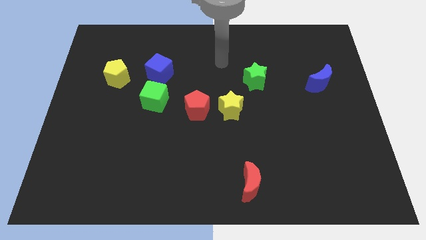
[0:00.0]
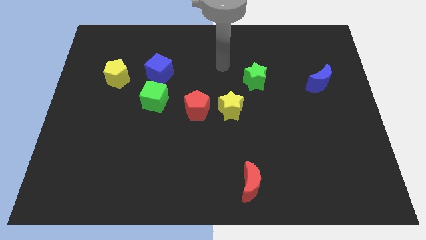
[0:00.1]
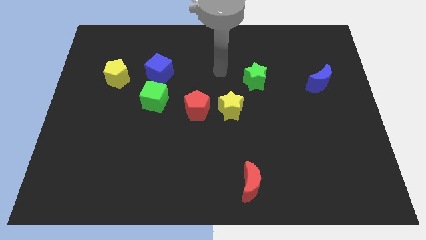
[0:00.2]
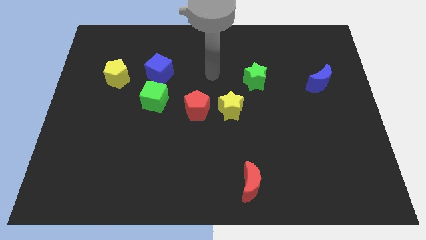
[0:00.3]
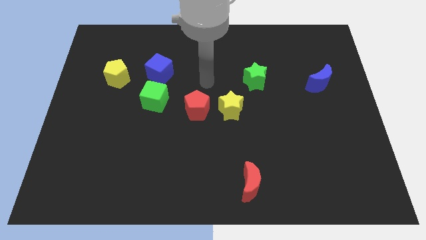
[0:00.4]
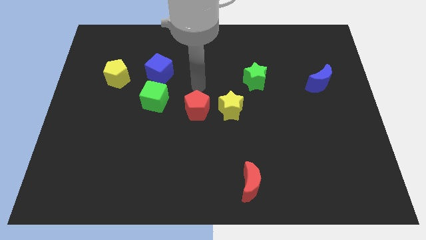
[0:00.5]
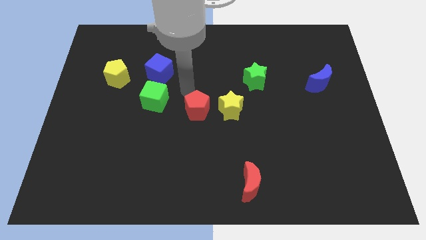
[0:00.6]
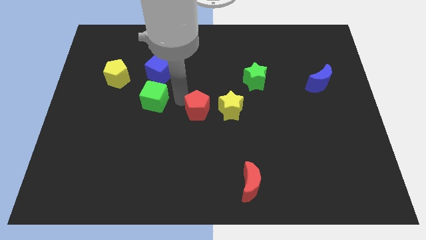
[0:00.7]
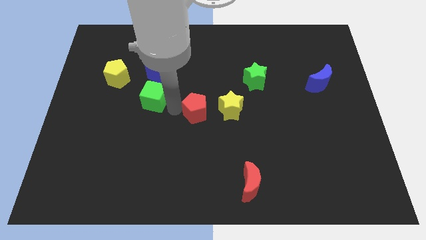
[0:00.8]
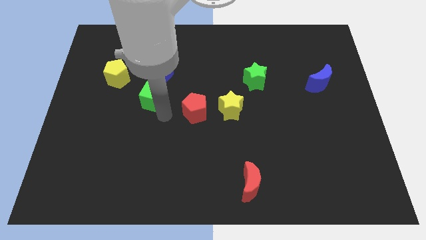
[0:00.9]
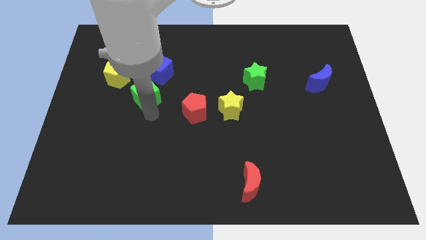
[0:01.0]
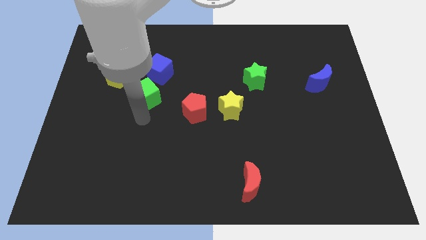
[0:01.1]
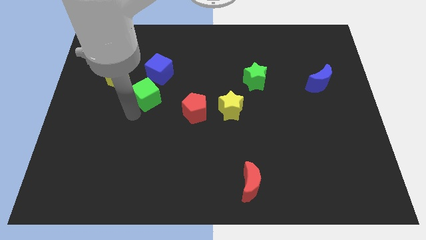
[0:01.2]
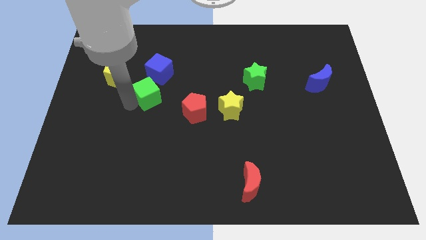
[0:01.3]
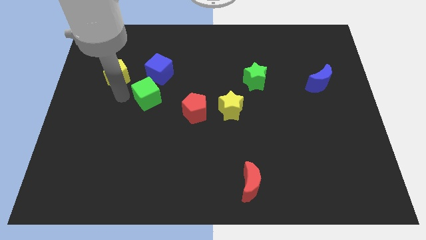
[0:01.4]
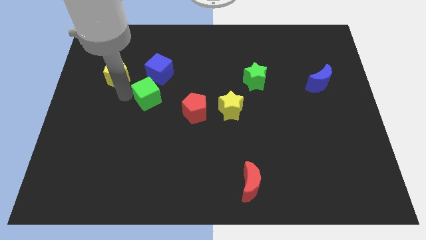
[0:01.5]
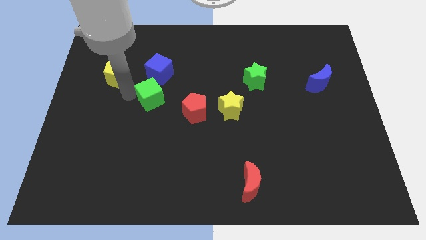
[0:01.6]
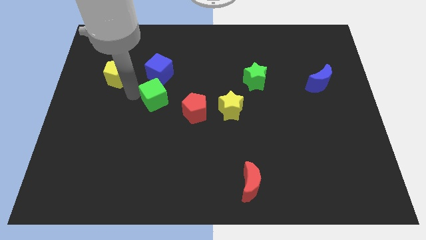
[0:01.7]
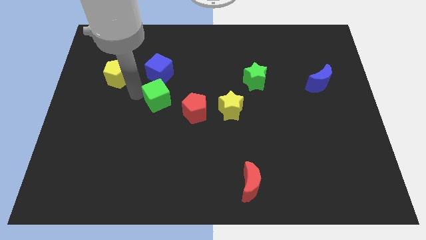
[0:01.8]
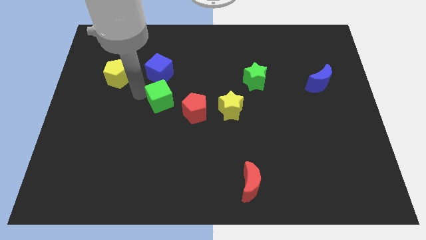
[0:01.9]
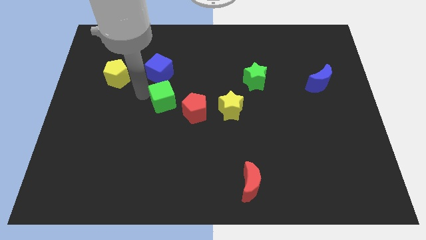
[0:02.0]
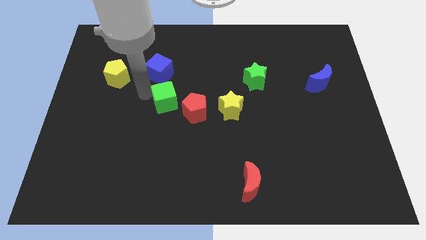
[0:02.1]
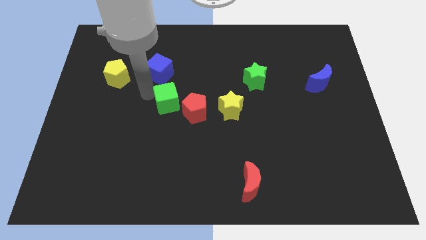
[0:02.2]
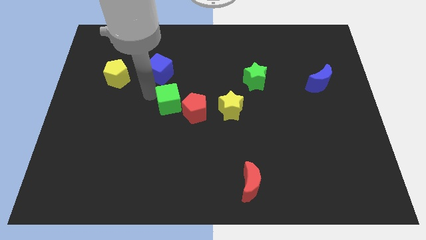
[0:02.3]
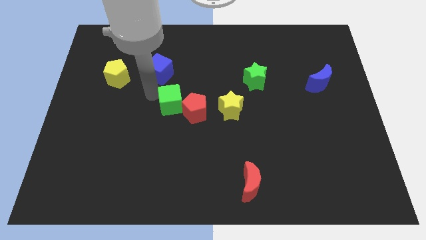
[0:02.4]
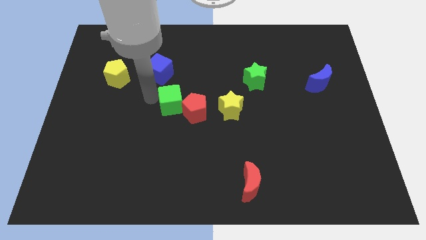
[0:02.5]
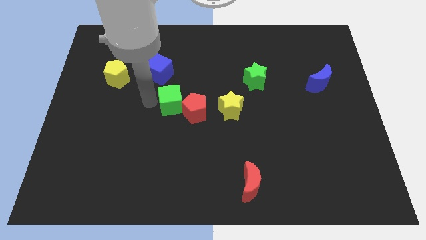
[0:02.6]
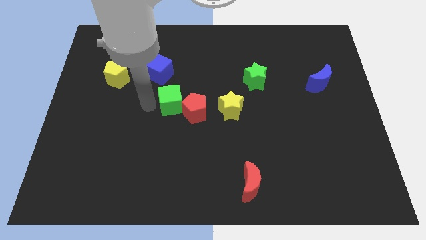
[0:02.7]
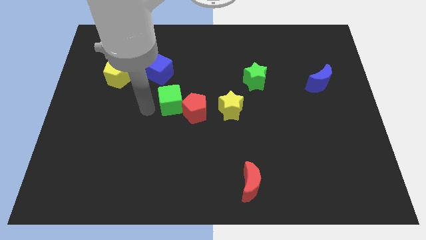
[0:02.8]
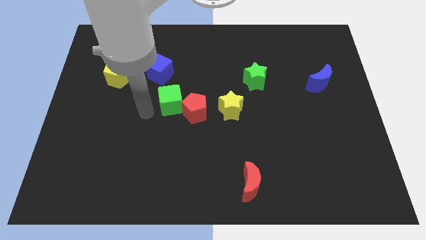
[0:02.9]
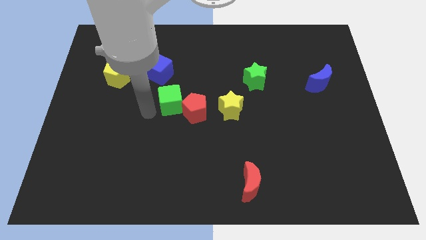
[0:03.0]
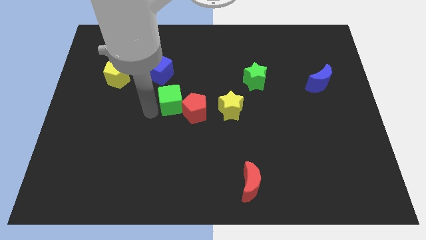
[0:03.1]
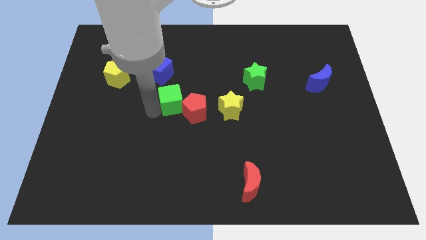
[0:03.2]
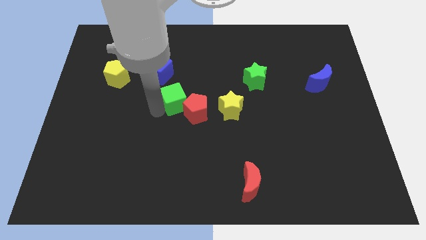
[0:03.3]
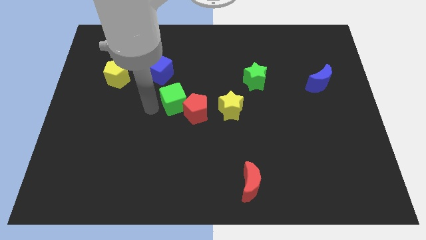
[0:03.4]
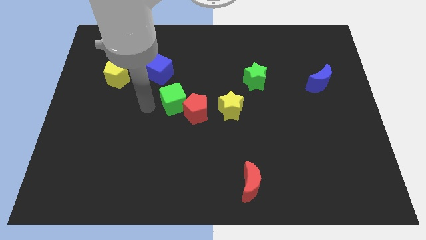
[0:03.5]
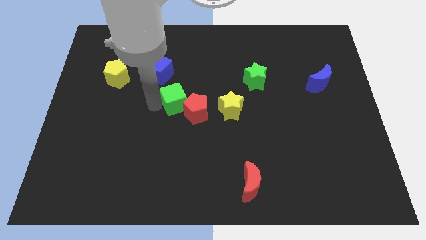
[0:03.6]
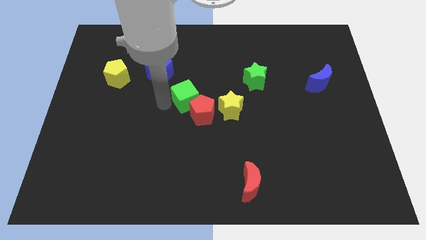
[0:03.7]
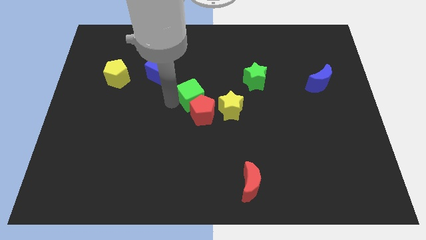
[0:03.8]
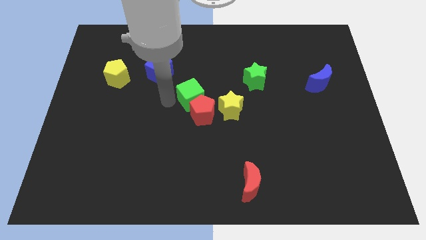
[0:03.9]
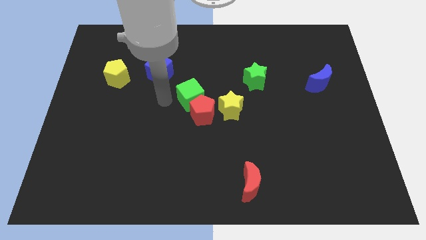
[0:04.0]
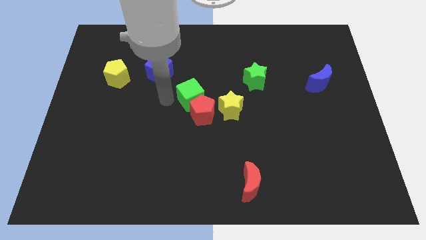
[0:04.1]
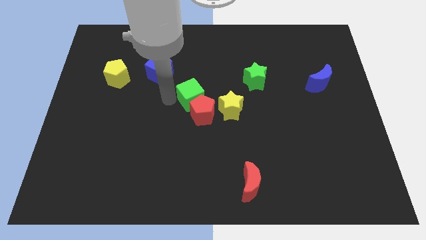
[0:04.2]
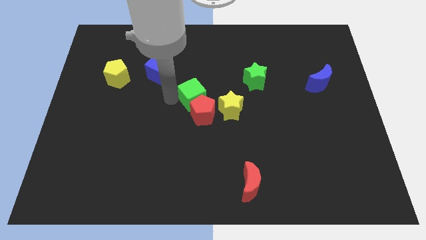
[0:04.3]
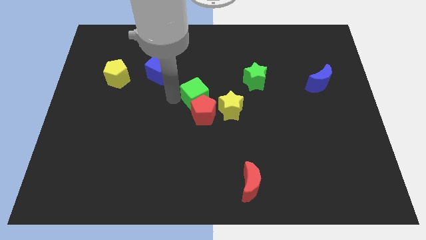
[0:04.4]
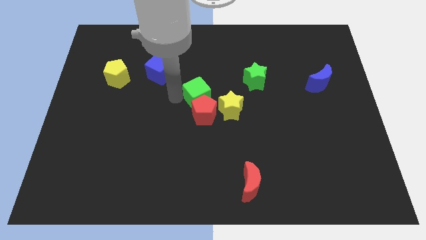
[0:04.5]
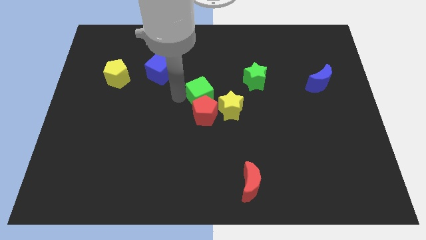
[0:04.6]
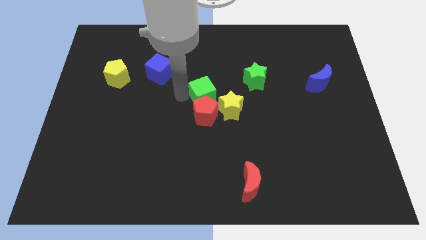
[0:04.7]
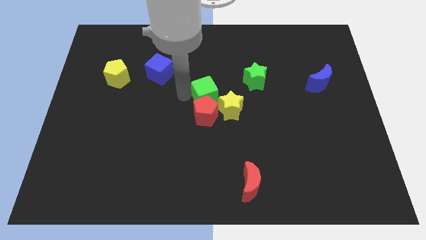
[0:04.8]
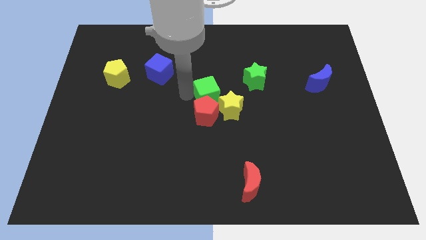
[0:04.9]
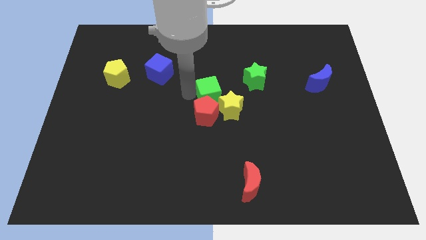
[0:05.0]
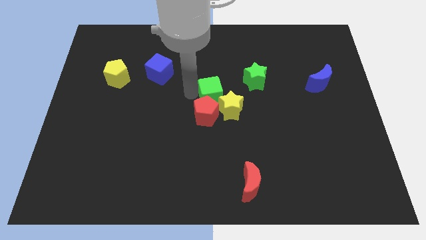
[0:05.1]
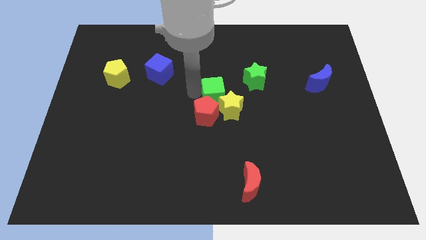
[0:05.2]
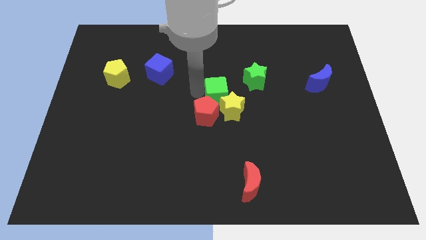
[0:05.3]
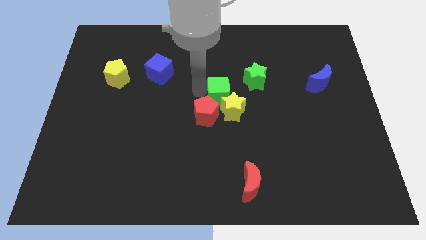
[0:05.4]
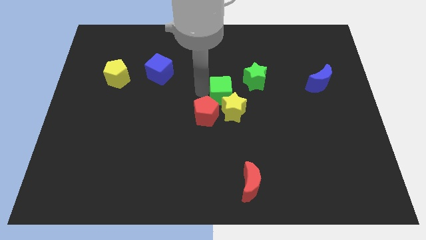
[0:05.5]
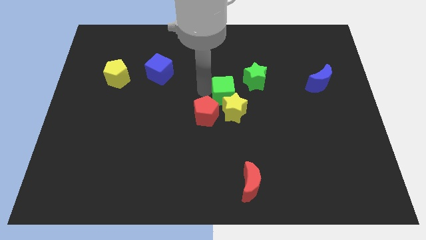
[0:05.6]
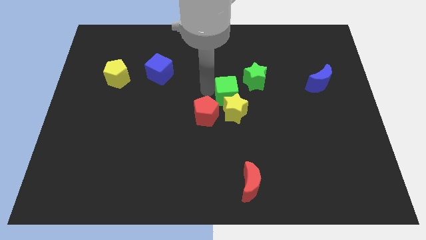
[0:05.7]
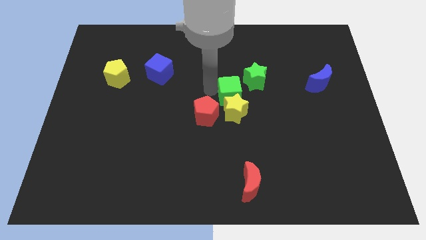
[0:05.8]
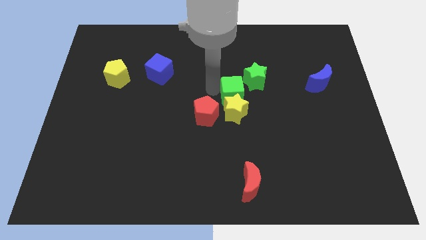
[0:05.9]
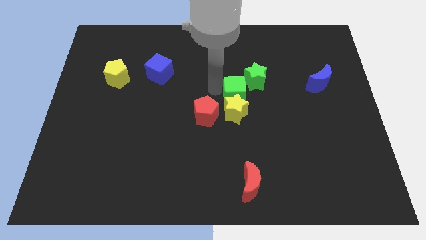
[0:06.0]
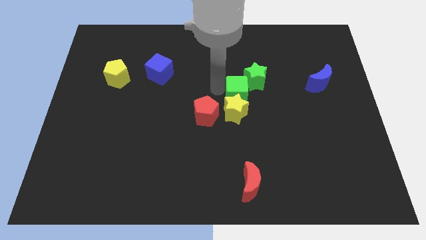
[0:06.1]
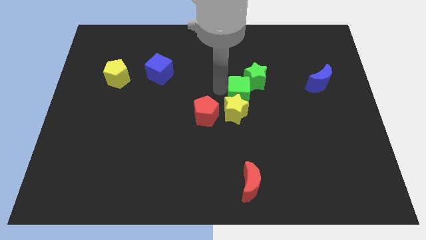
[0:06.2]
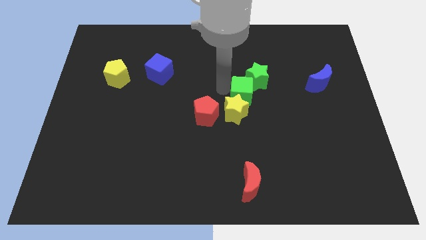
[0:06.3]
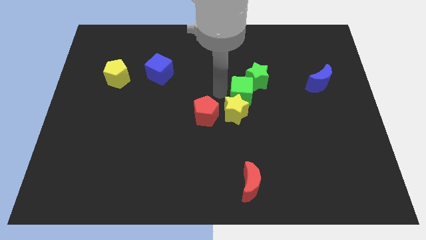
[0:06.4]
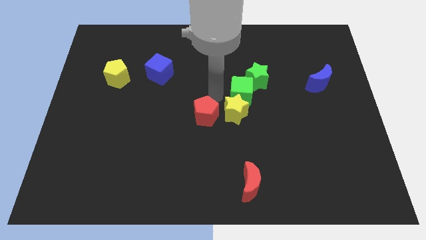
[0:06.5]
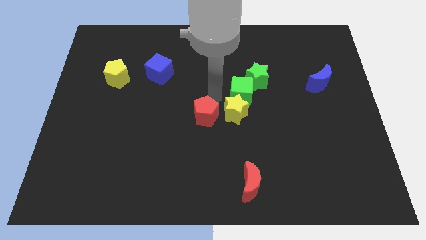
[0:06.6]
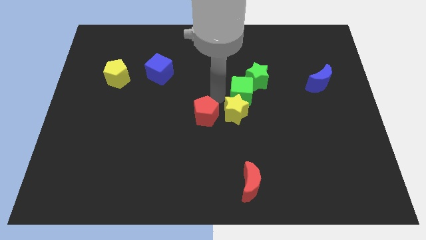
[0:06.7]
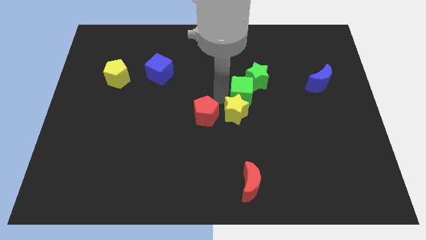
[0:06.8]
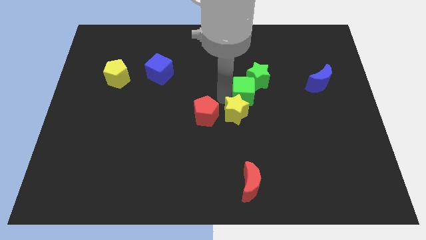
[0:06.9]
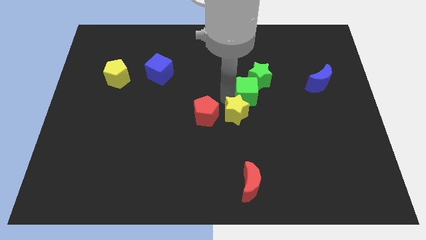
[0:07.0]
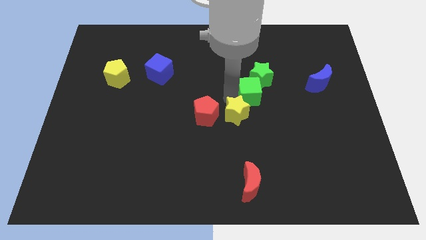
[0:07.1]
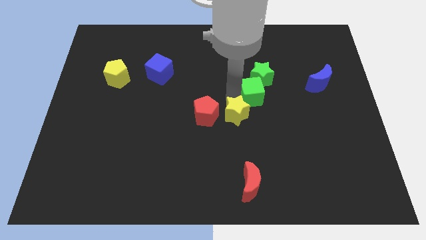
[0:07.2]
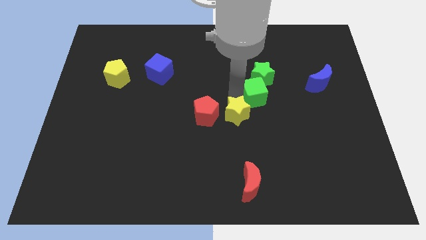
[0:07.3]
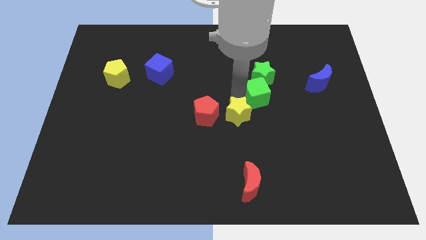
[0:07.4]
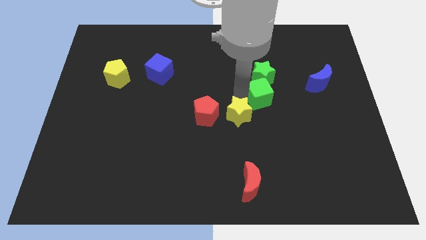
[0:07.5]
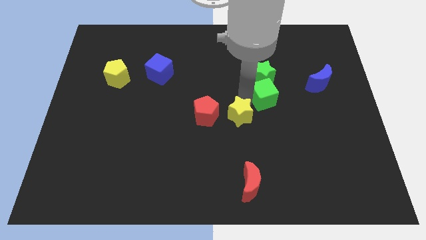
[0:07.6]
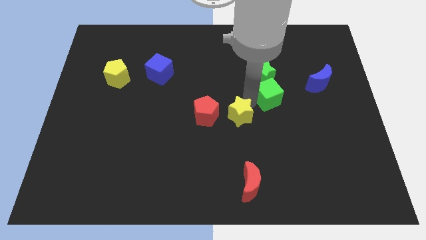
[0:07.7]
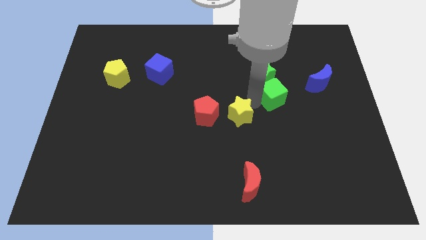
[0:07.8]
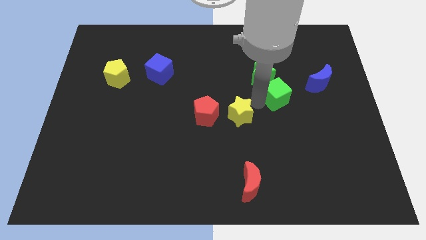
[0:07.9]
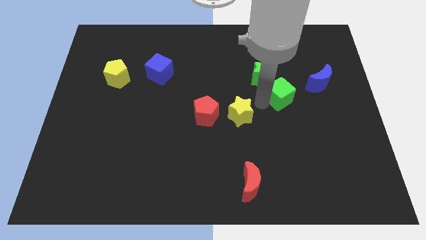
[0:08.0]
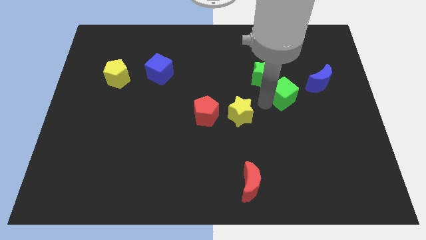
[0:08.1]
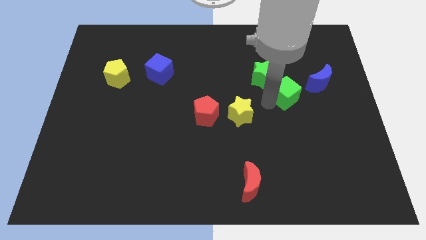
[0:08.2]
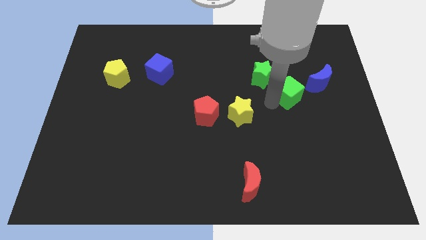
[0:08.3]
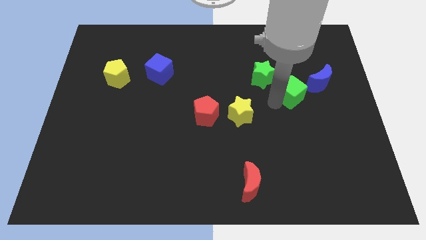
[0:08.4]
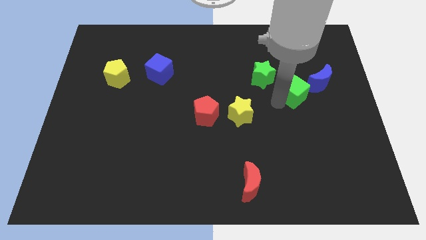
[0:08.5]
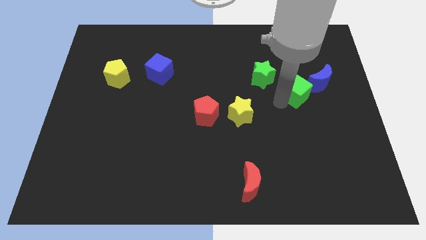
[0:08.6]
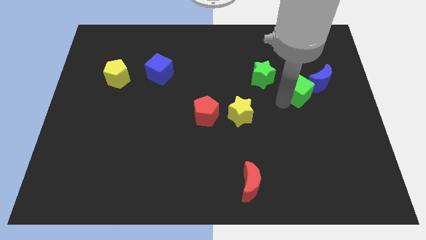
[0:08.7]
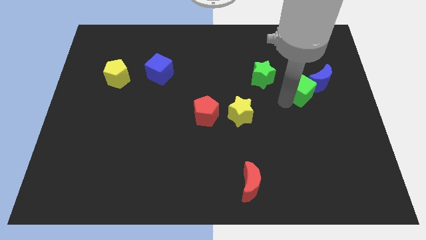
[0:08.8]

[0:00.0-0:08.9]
slide the green cube close to the blue moon
